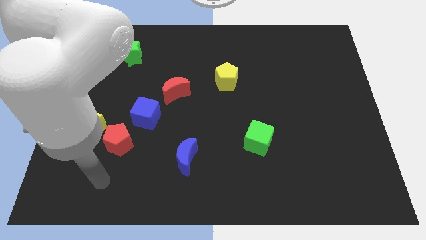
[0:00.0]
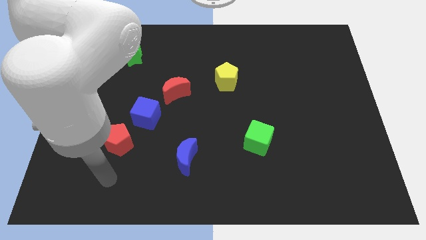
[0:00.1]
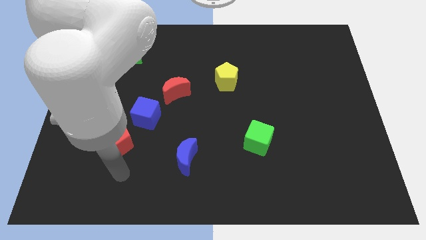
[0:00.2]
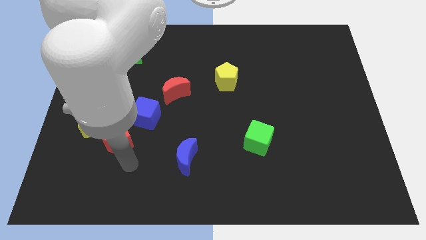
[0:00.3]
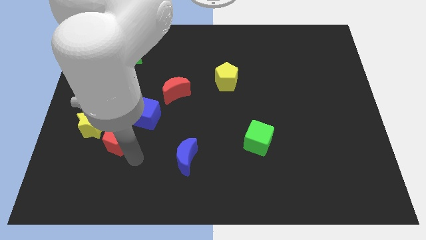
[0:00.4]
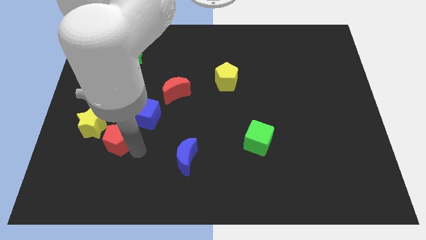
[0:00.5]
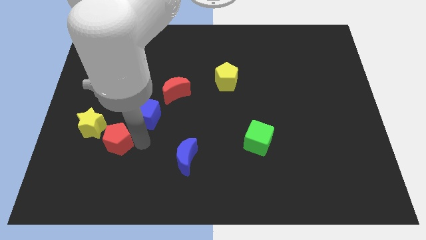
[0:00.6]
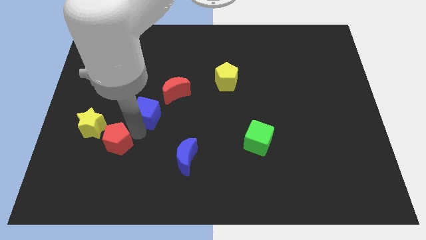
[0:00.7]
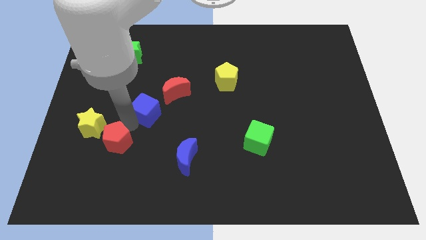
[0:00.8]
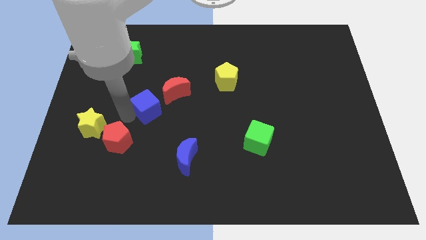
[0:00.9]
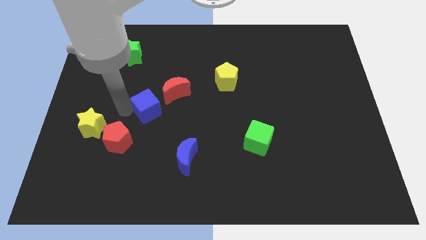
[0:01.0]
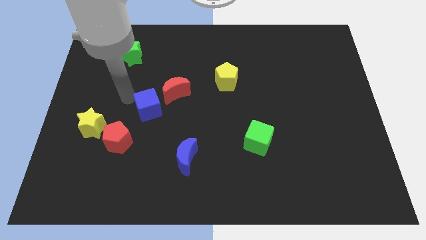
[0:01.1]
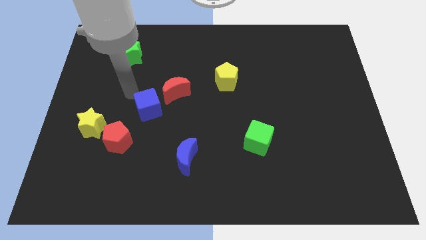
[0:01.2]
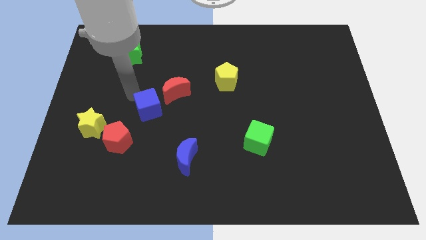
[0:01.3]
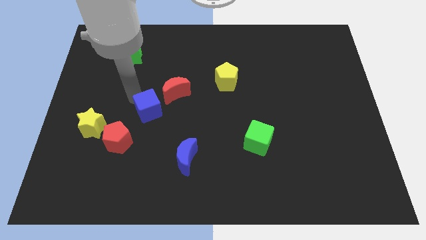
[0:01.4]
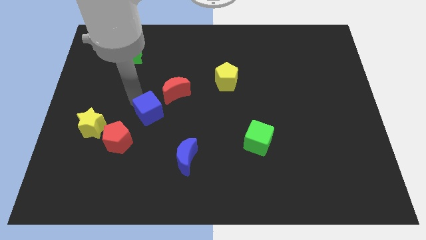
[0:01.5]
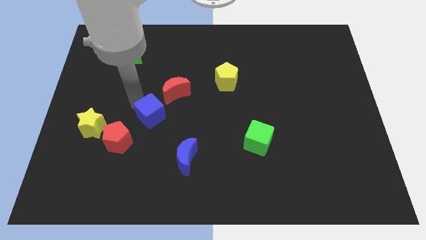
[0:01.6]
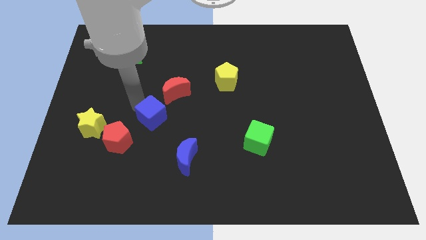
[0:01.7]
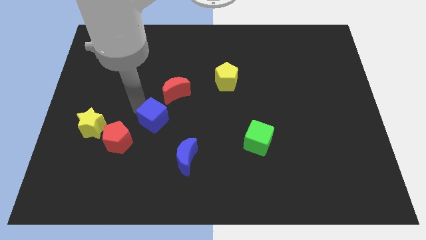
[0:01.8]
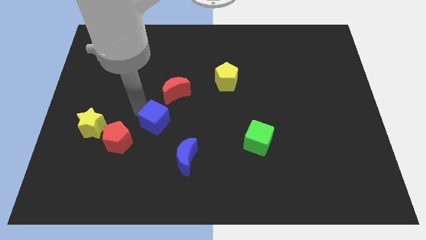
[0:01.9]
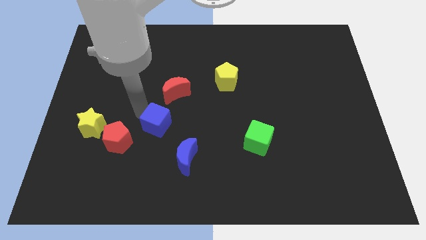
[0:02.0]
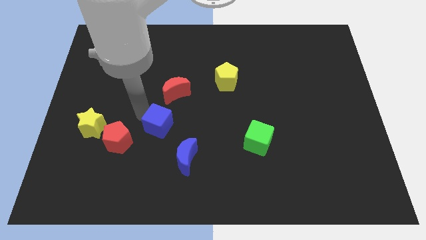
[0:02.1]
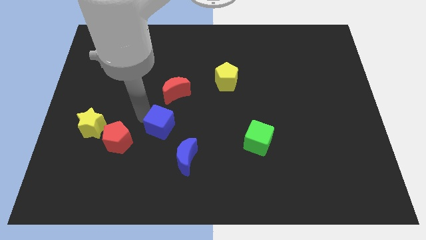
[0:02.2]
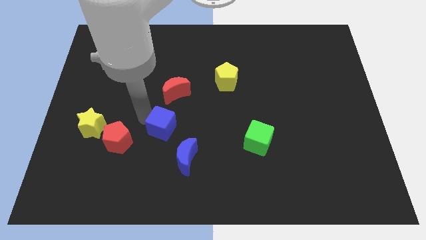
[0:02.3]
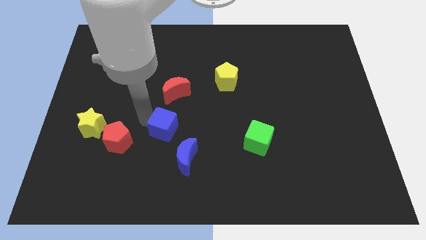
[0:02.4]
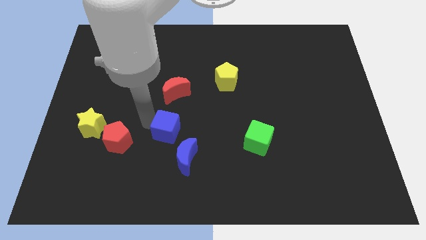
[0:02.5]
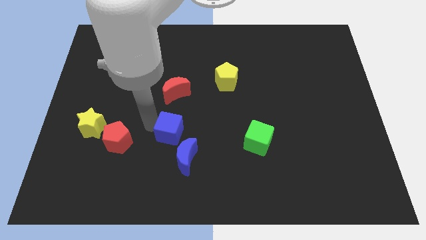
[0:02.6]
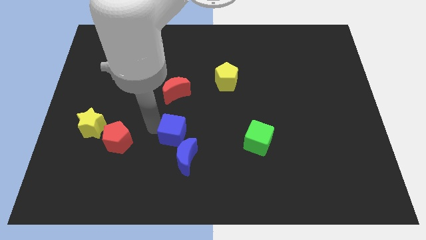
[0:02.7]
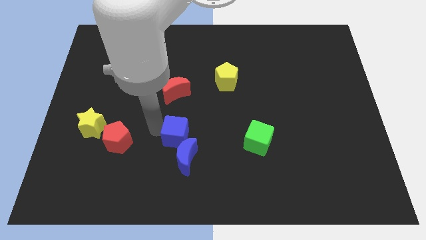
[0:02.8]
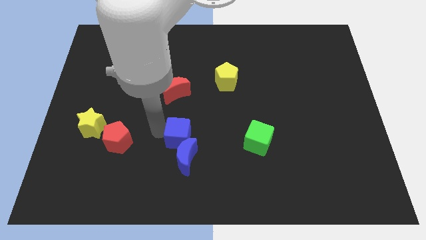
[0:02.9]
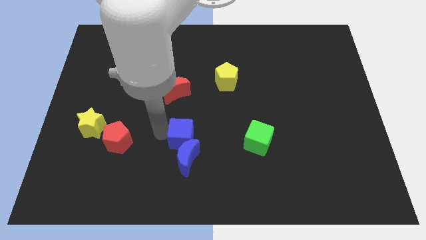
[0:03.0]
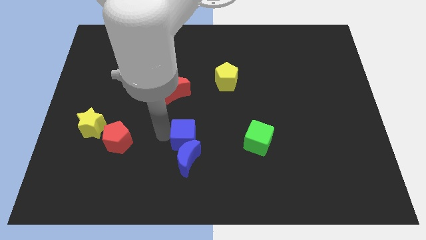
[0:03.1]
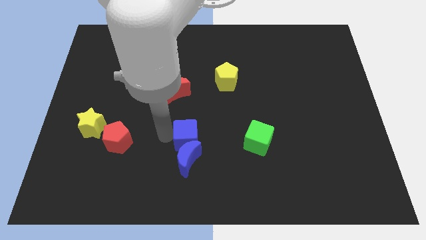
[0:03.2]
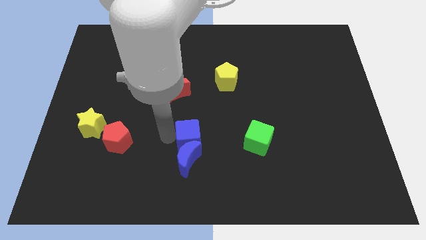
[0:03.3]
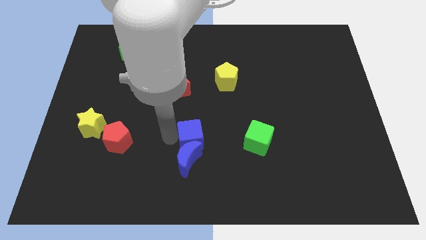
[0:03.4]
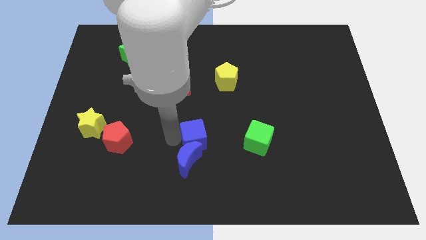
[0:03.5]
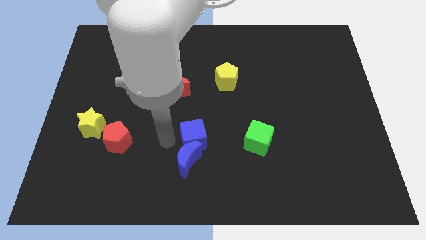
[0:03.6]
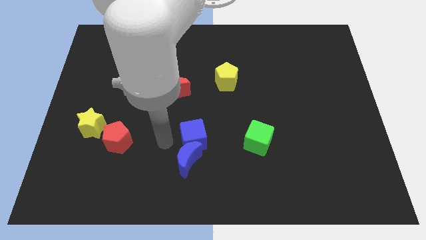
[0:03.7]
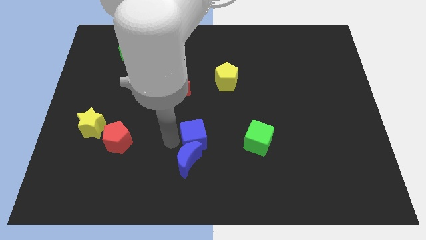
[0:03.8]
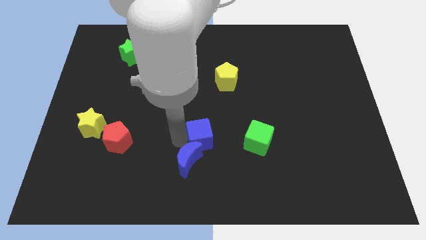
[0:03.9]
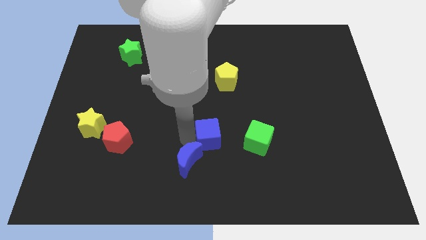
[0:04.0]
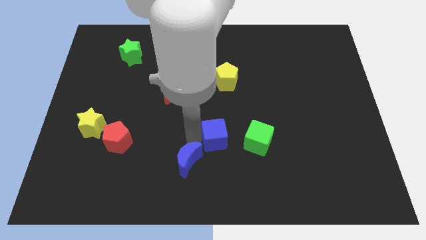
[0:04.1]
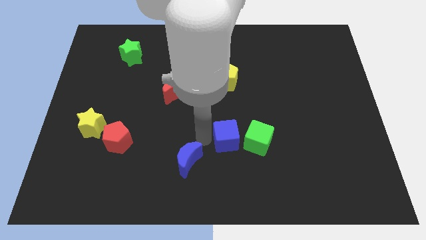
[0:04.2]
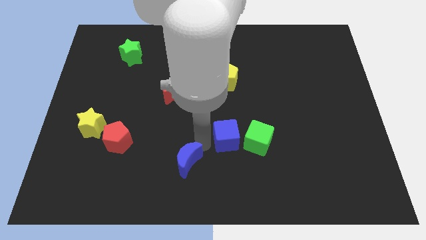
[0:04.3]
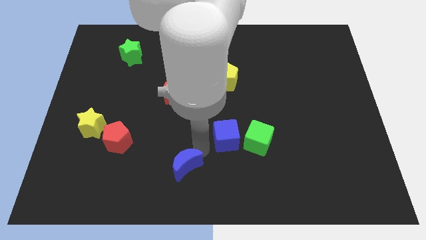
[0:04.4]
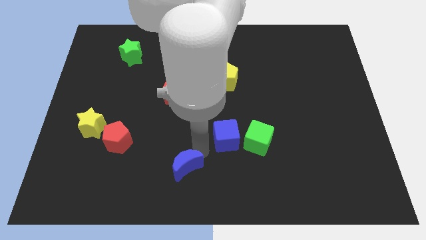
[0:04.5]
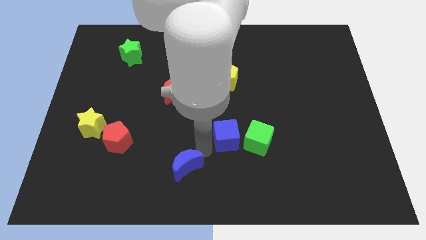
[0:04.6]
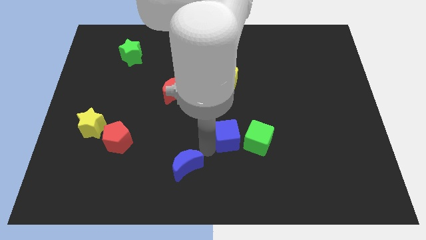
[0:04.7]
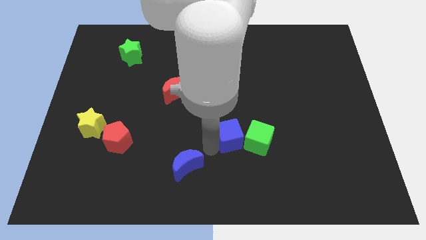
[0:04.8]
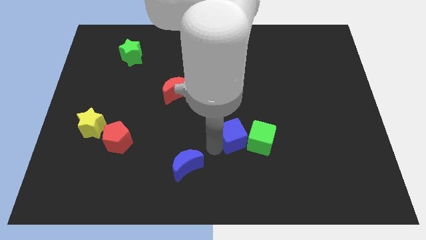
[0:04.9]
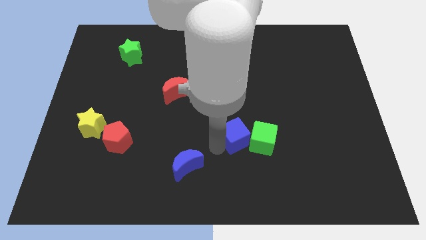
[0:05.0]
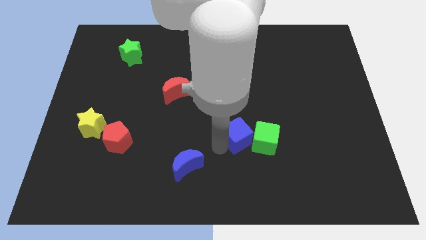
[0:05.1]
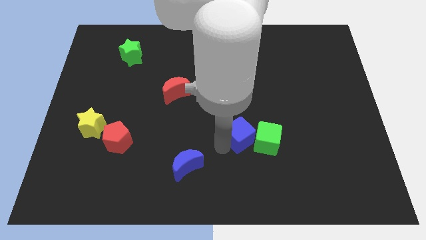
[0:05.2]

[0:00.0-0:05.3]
move the blue cube right

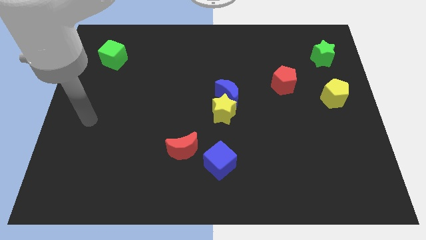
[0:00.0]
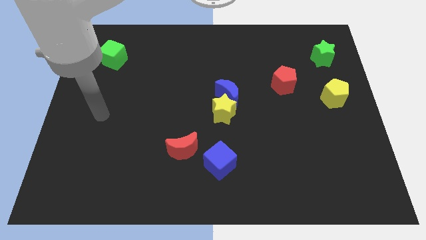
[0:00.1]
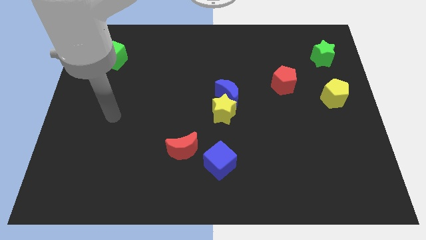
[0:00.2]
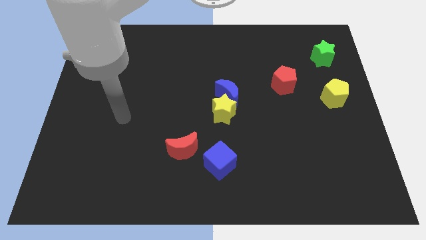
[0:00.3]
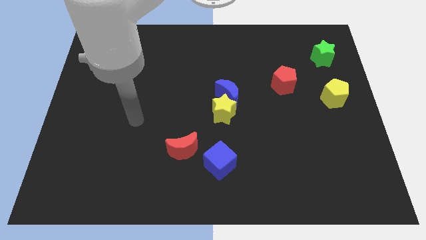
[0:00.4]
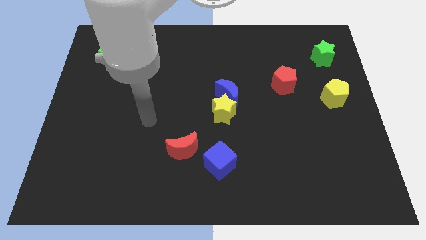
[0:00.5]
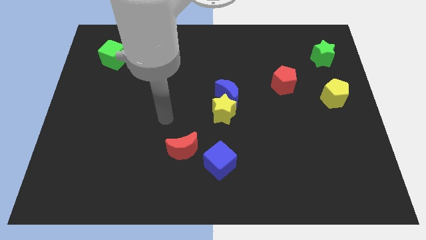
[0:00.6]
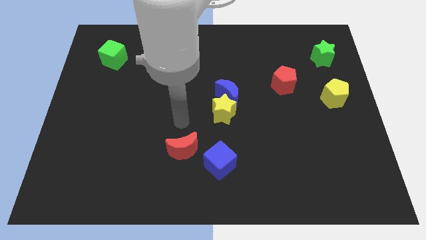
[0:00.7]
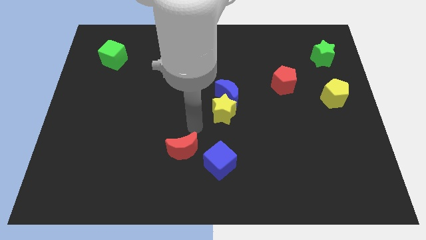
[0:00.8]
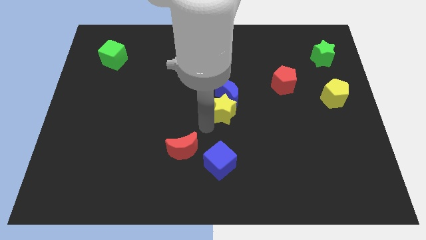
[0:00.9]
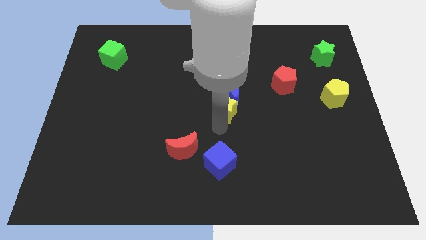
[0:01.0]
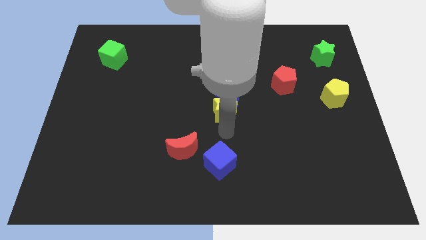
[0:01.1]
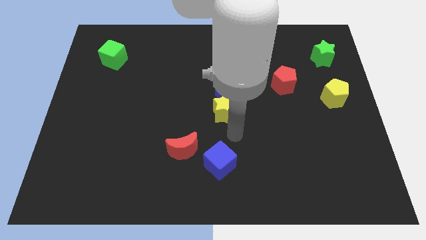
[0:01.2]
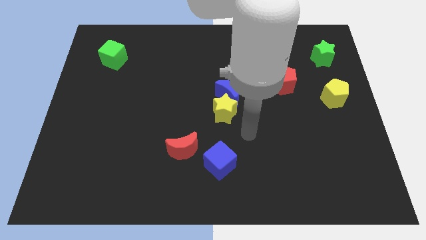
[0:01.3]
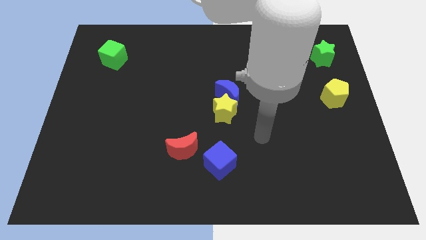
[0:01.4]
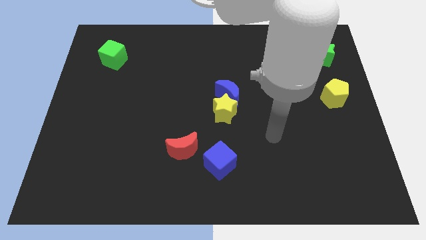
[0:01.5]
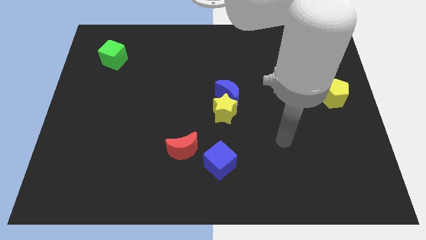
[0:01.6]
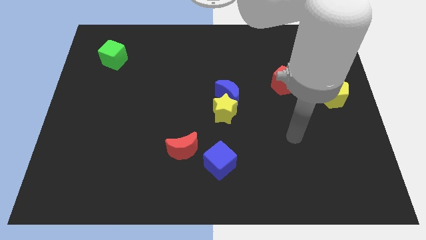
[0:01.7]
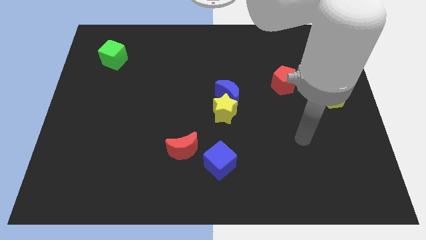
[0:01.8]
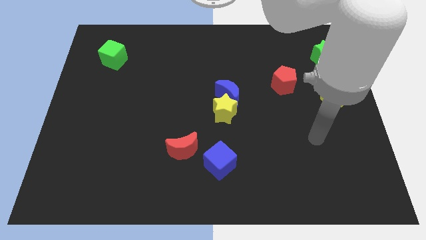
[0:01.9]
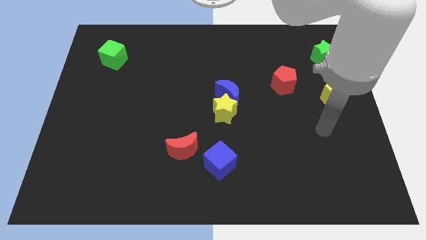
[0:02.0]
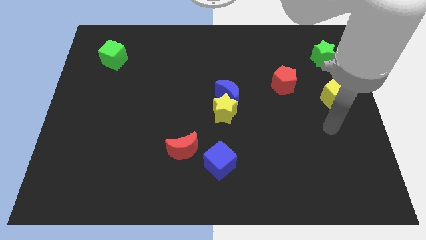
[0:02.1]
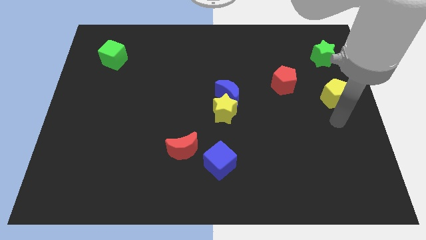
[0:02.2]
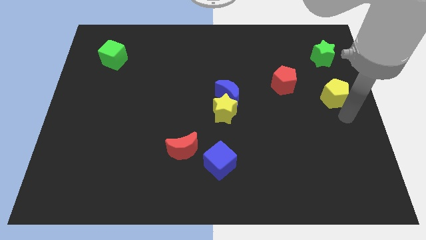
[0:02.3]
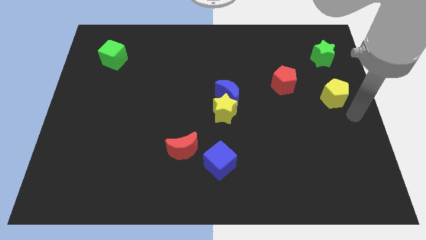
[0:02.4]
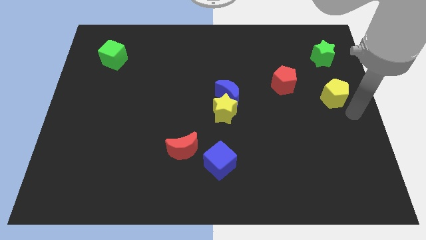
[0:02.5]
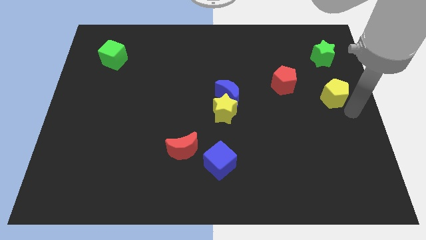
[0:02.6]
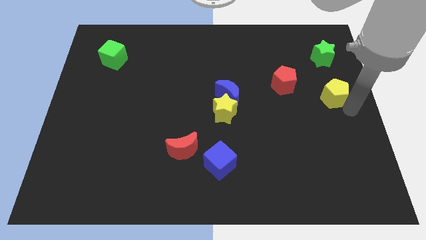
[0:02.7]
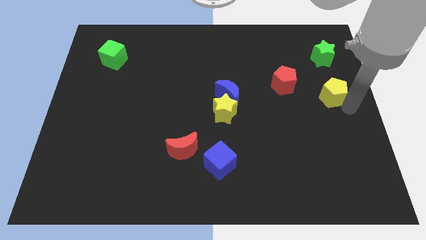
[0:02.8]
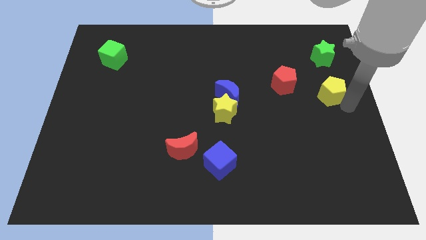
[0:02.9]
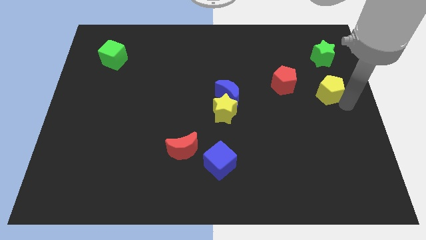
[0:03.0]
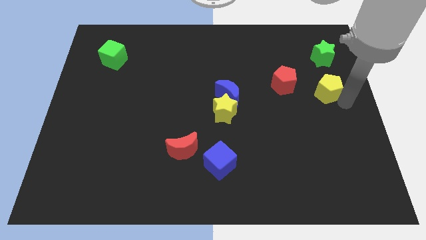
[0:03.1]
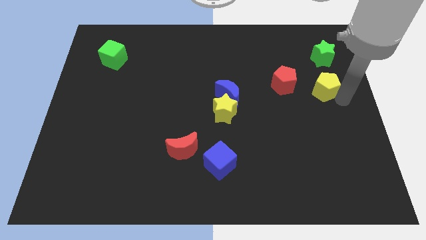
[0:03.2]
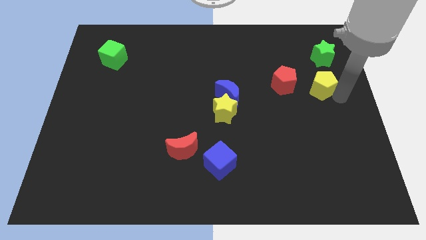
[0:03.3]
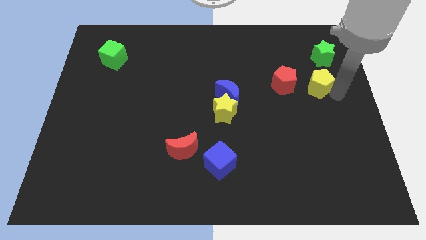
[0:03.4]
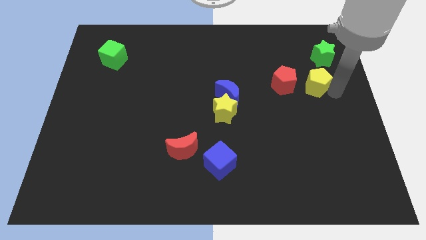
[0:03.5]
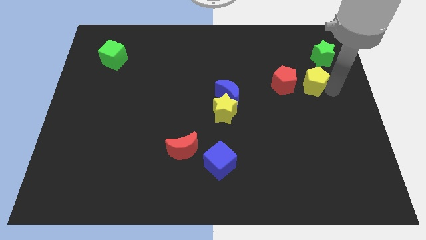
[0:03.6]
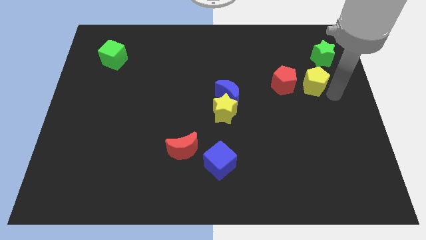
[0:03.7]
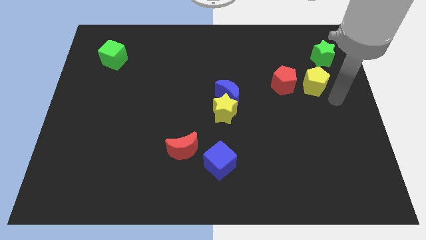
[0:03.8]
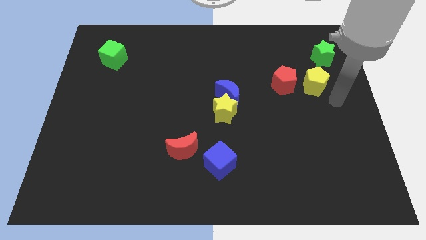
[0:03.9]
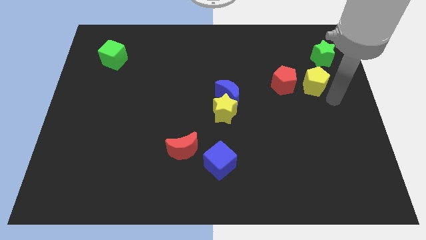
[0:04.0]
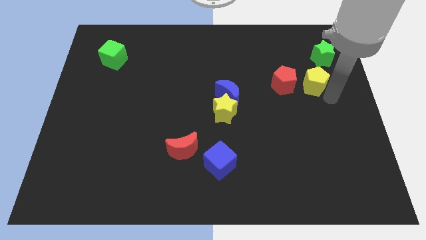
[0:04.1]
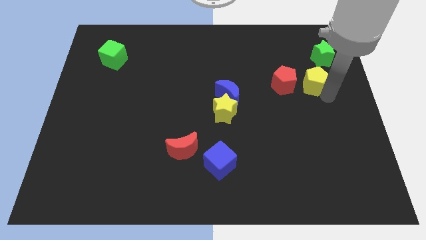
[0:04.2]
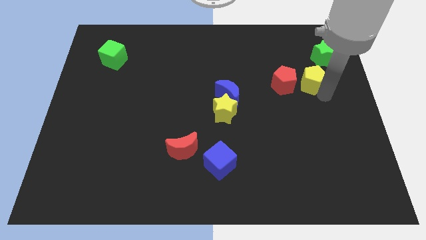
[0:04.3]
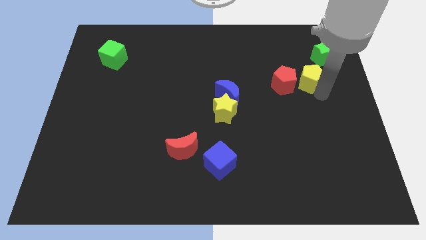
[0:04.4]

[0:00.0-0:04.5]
push the yellow pentagon diagonally up and to the left a little bit
